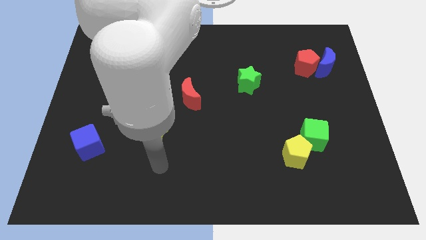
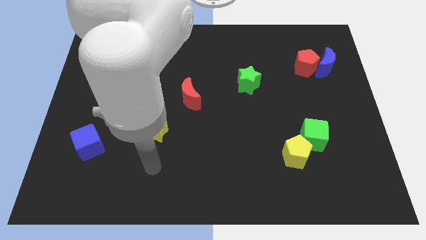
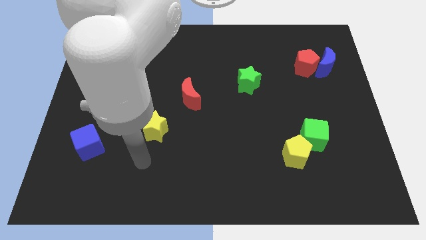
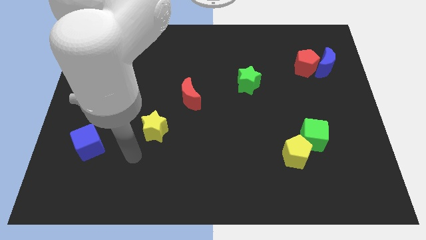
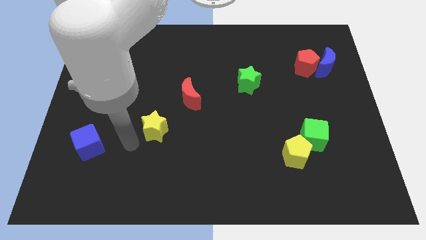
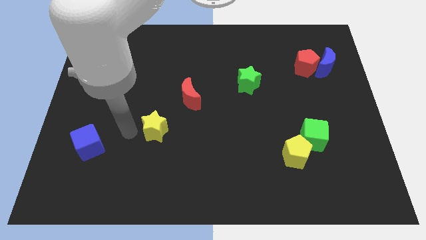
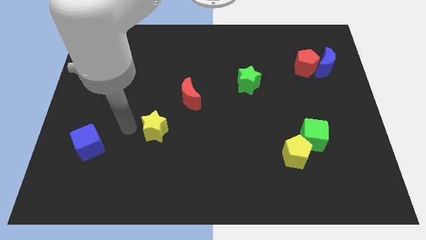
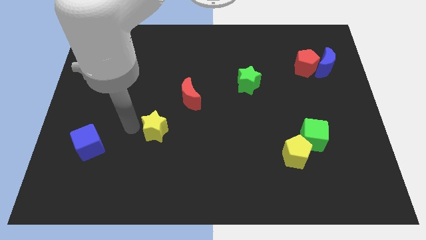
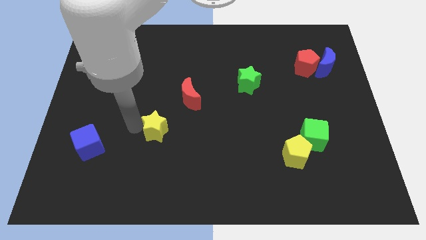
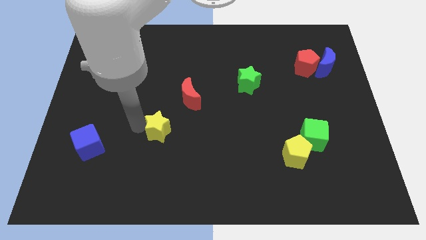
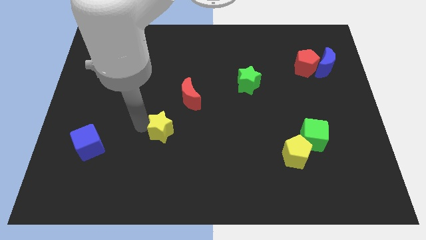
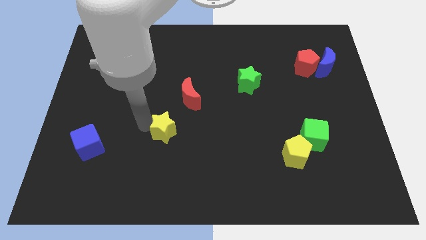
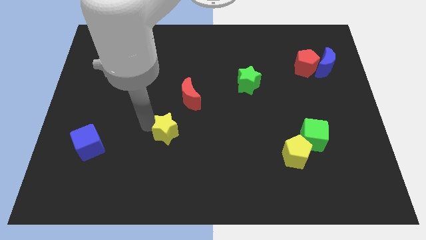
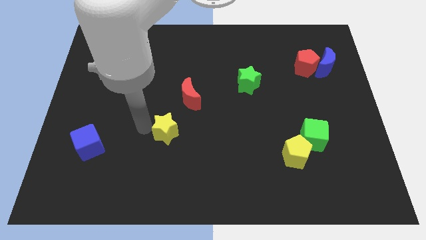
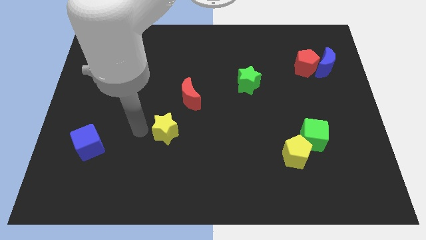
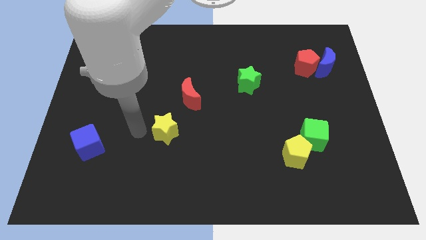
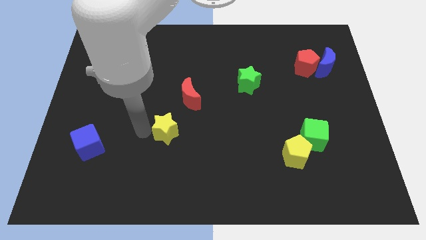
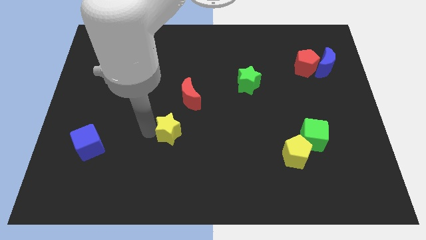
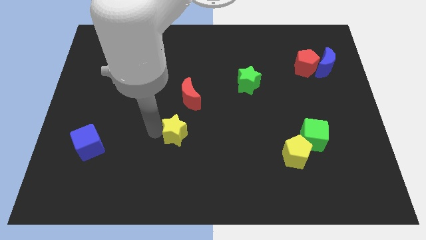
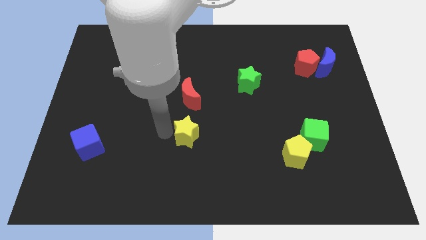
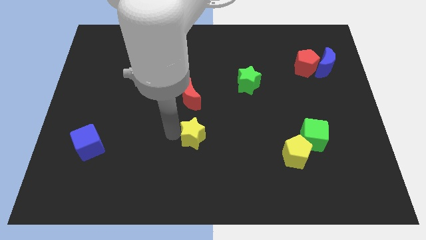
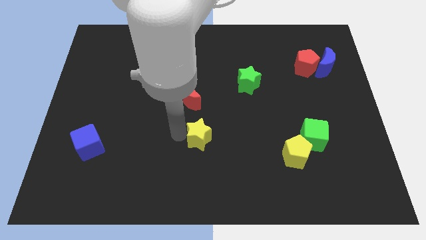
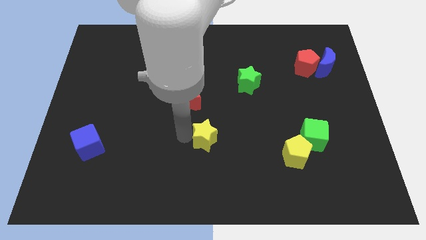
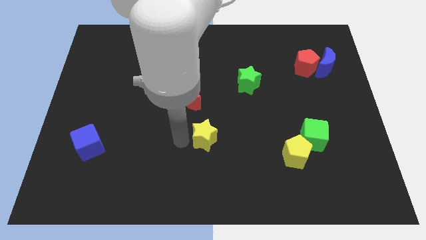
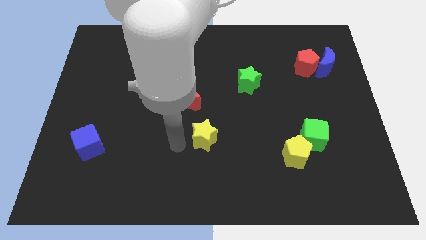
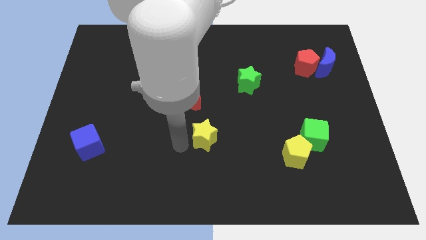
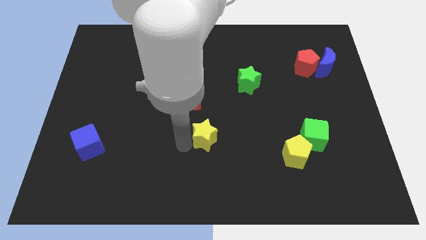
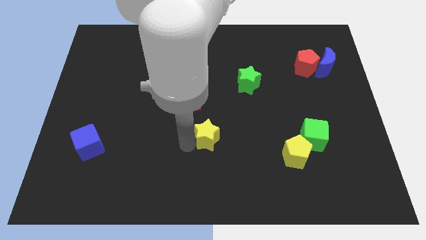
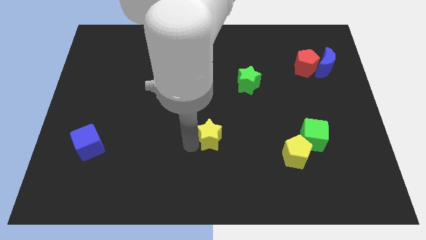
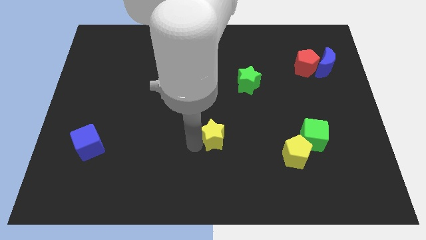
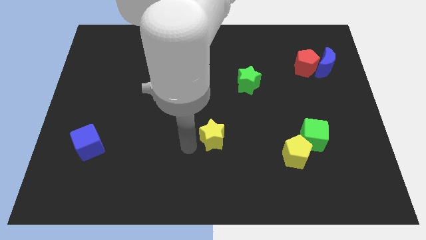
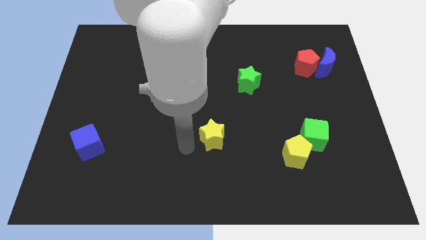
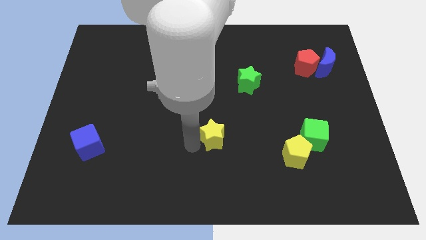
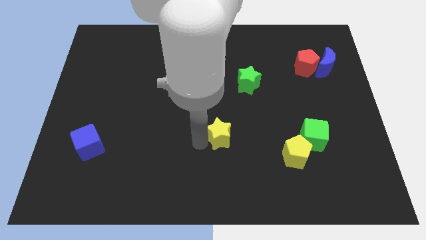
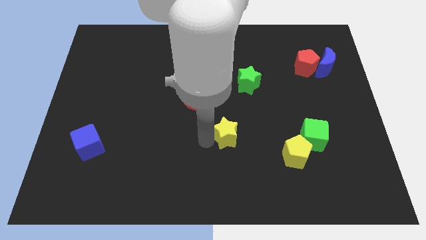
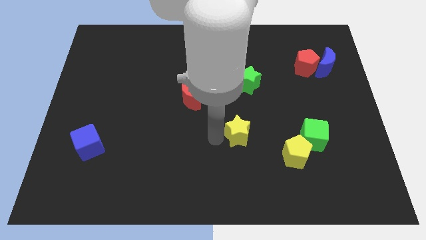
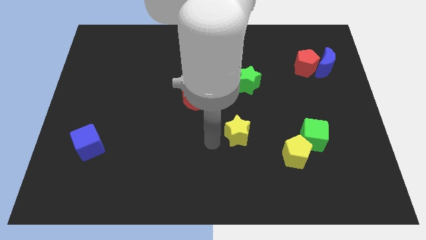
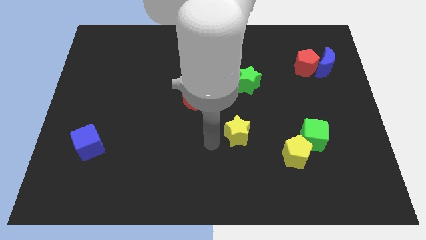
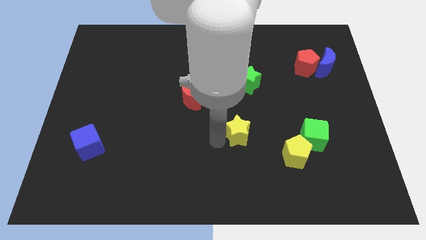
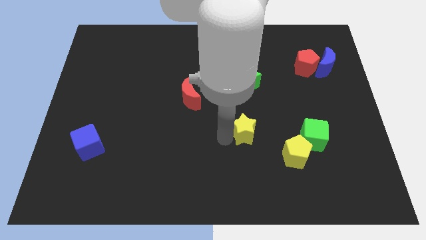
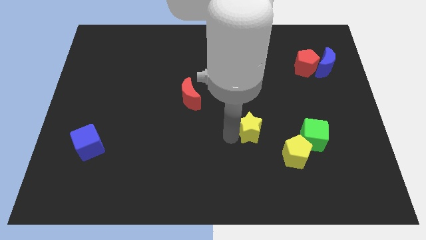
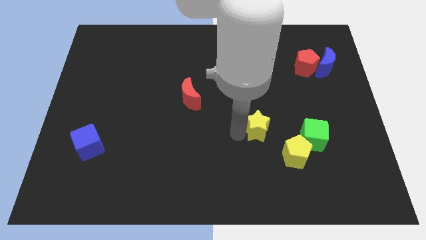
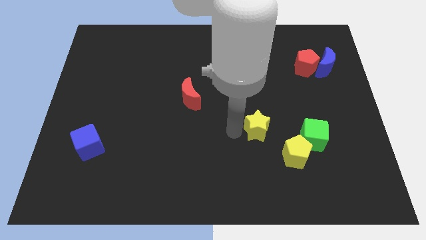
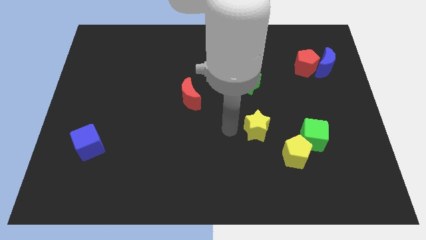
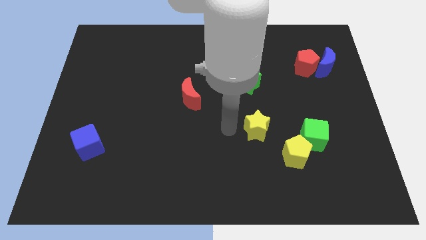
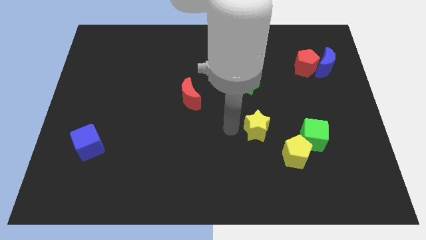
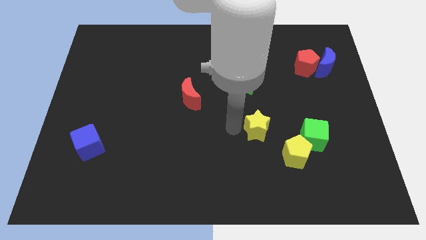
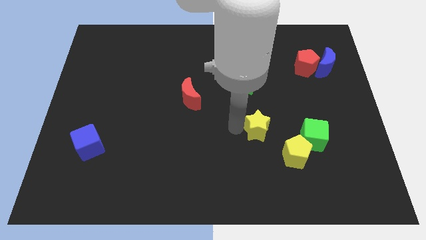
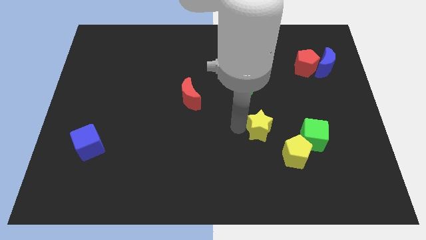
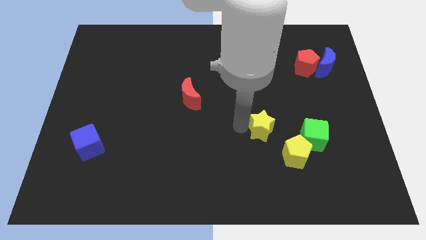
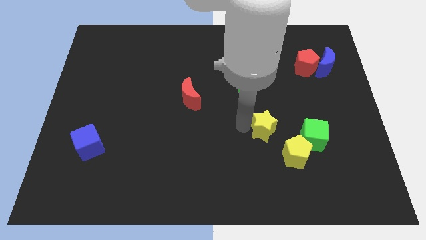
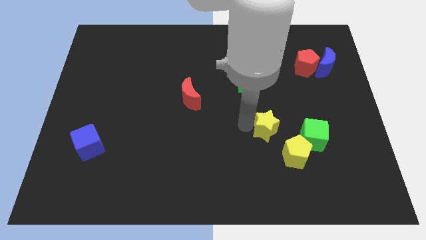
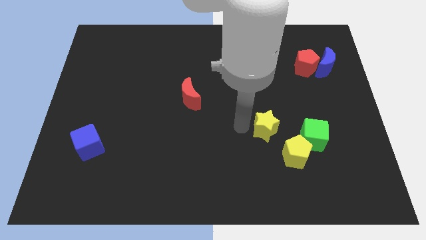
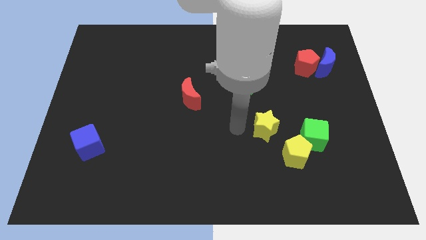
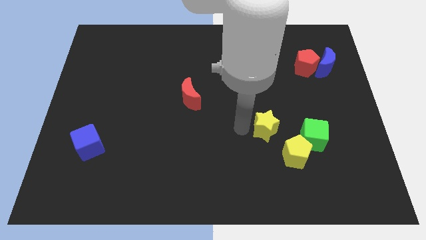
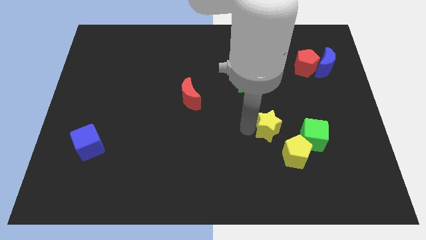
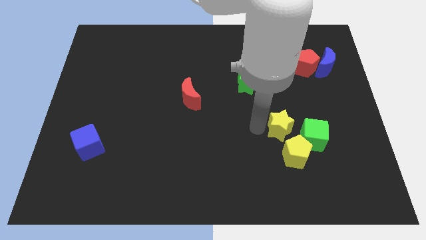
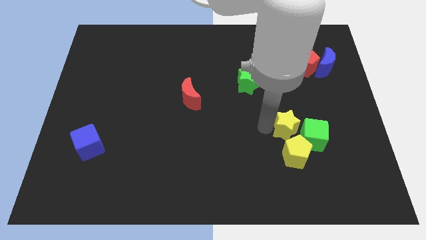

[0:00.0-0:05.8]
slide the yellow star close to the green cube
